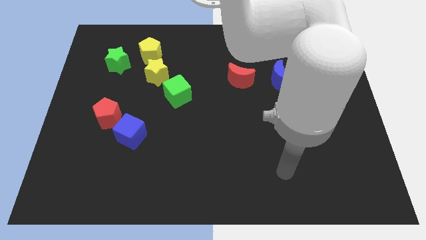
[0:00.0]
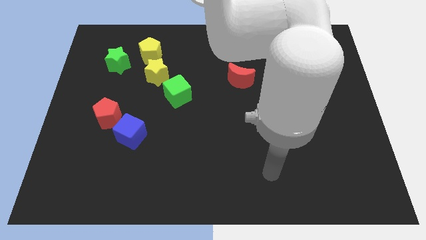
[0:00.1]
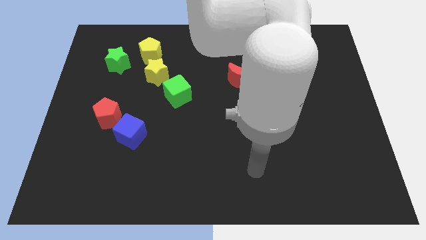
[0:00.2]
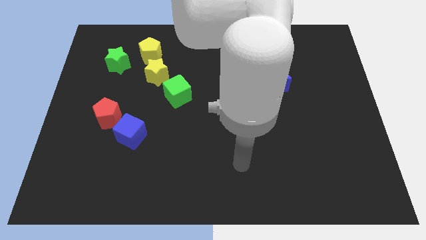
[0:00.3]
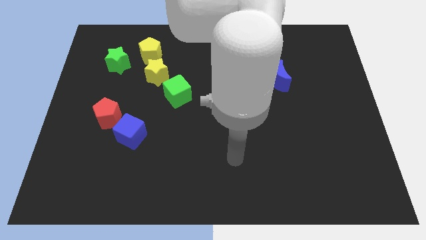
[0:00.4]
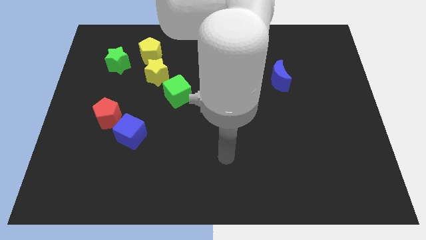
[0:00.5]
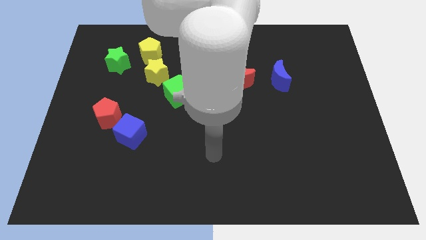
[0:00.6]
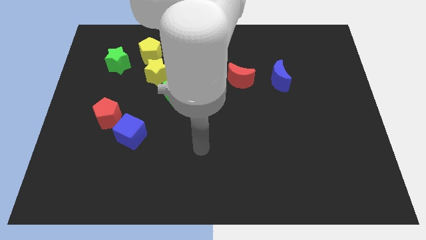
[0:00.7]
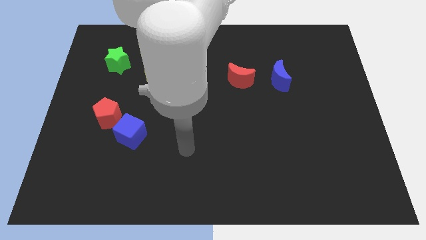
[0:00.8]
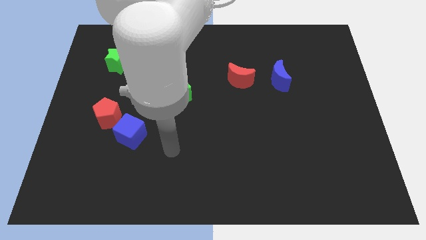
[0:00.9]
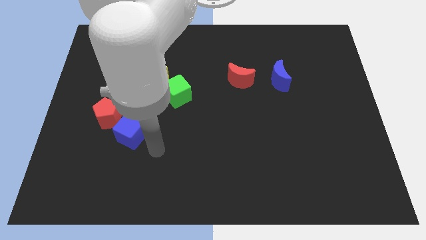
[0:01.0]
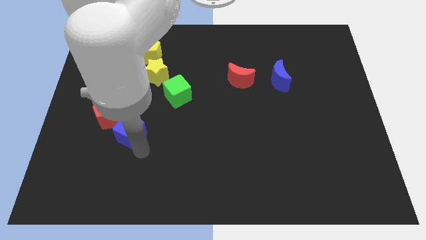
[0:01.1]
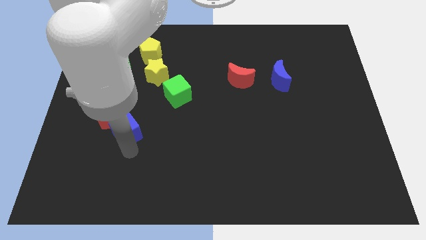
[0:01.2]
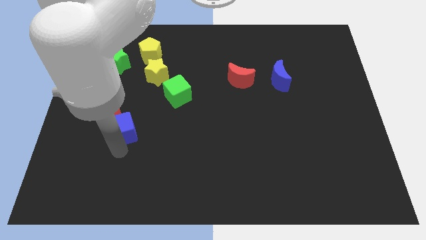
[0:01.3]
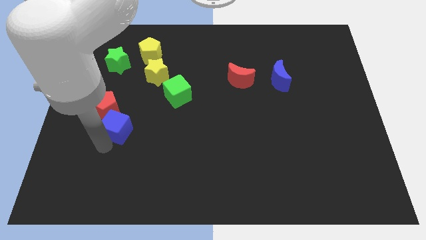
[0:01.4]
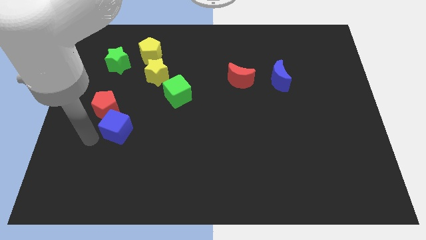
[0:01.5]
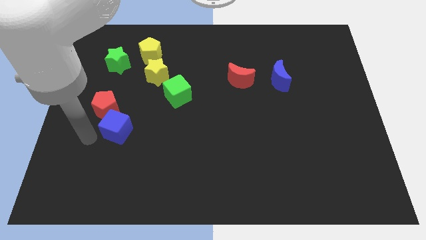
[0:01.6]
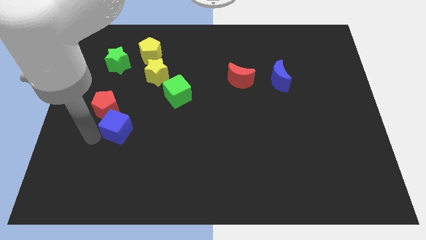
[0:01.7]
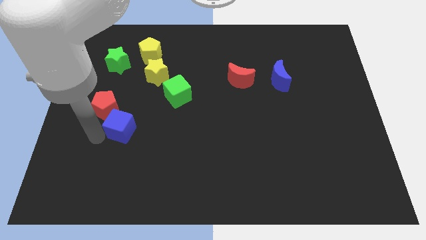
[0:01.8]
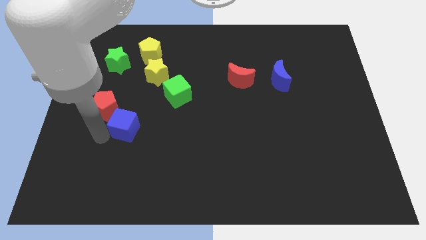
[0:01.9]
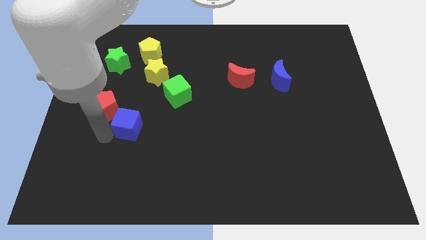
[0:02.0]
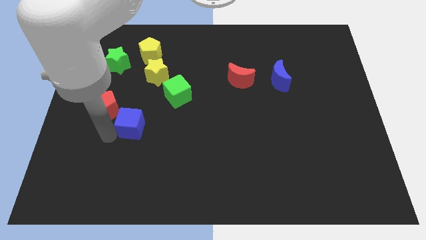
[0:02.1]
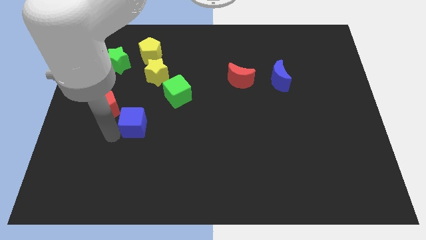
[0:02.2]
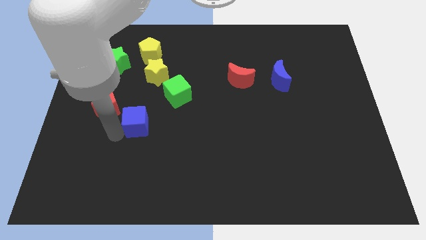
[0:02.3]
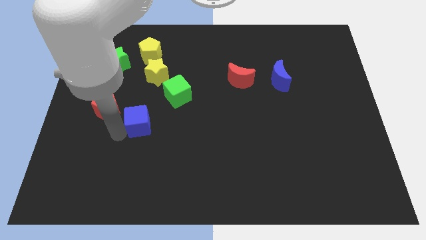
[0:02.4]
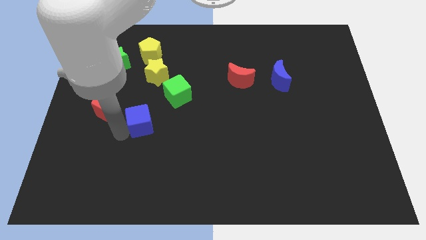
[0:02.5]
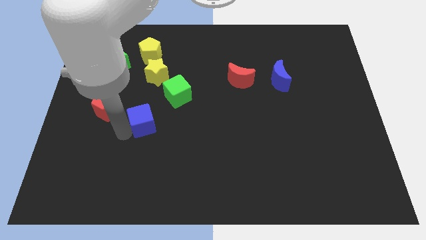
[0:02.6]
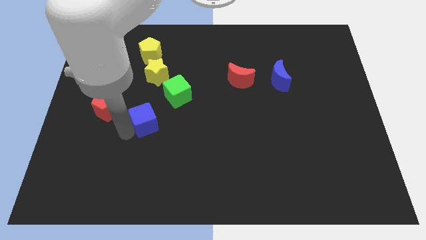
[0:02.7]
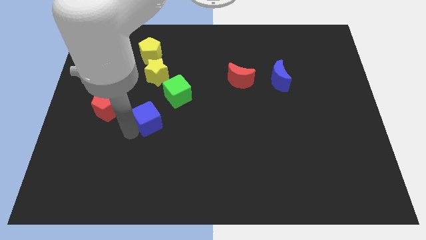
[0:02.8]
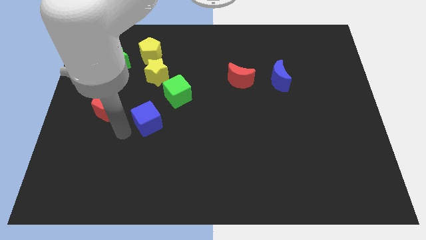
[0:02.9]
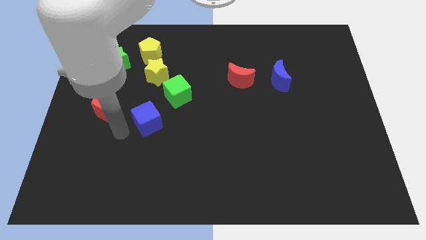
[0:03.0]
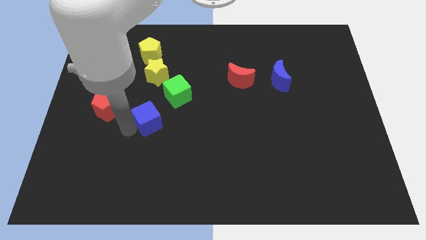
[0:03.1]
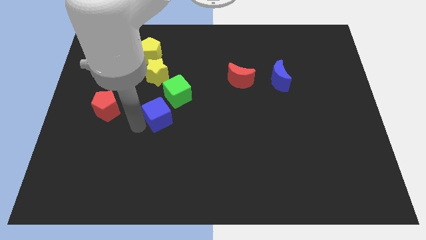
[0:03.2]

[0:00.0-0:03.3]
move the blue cube up and right diagonally a little

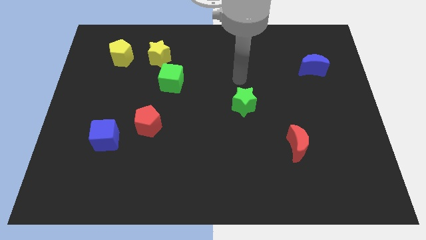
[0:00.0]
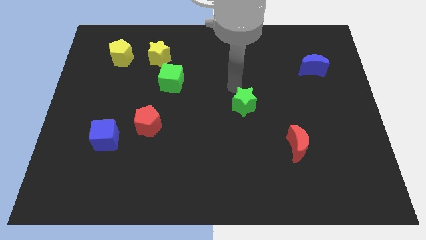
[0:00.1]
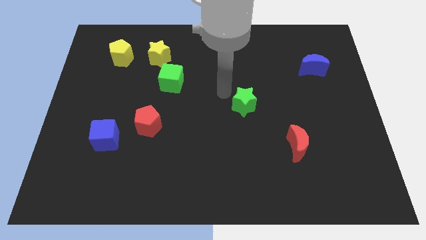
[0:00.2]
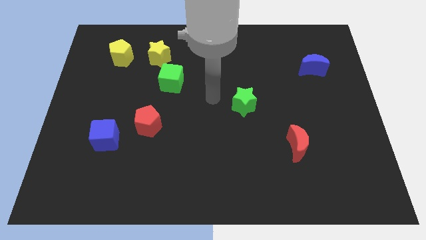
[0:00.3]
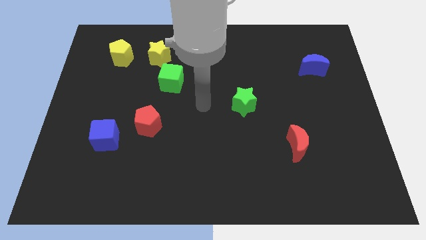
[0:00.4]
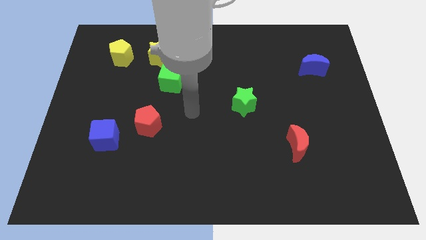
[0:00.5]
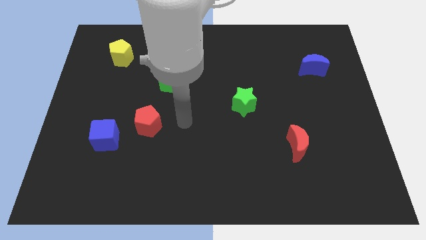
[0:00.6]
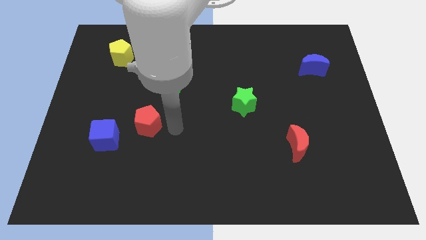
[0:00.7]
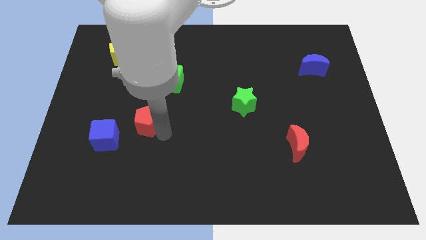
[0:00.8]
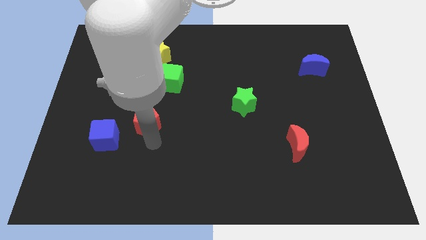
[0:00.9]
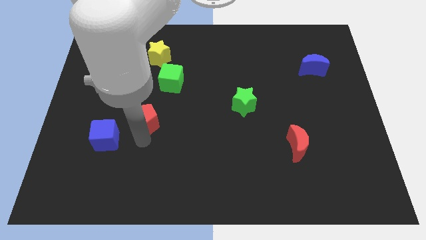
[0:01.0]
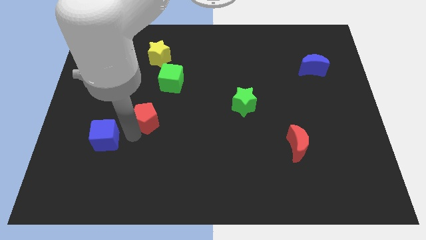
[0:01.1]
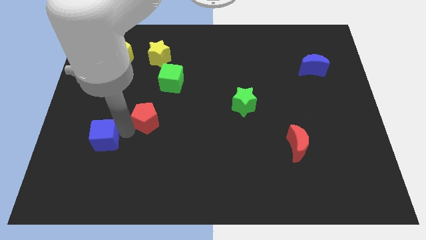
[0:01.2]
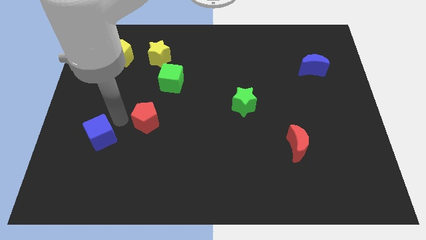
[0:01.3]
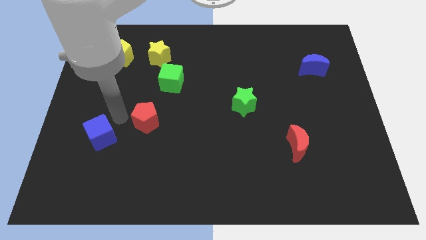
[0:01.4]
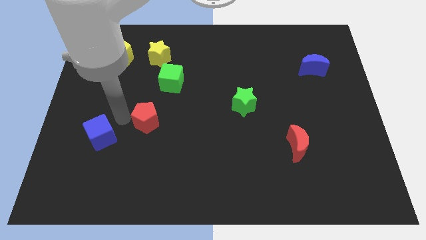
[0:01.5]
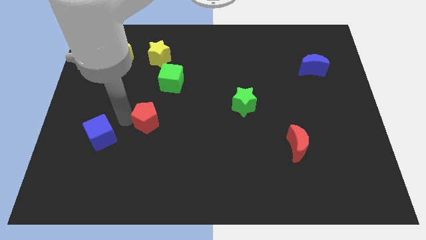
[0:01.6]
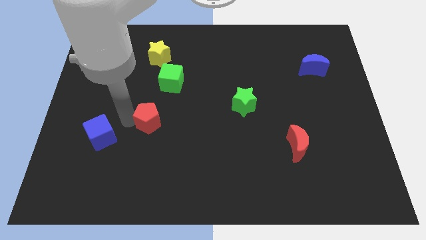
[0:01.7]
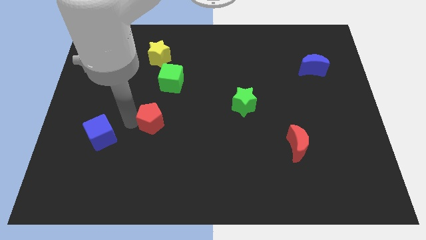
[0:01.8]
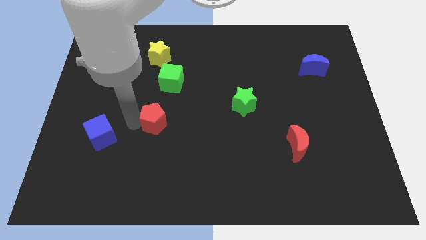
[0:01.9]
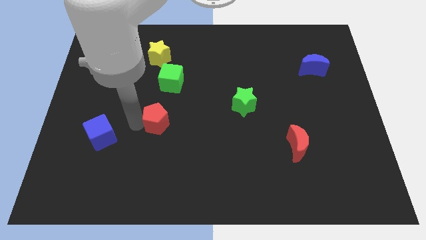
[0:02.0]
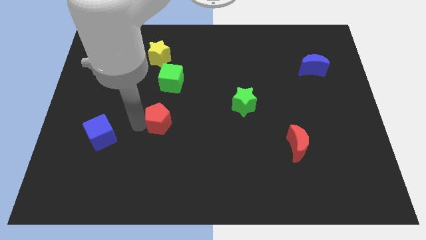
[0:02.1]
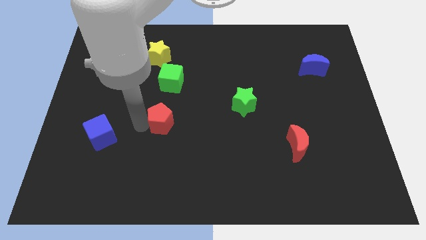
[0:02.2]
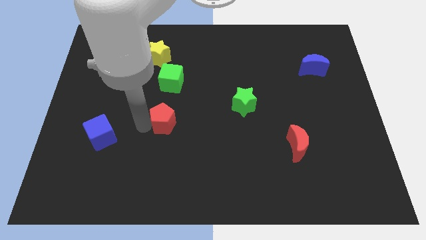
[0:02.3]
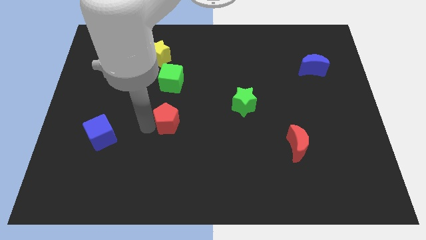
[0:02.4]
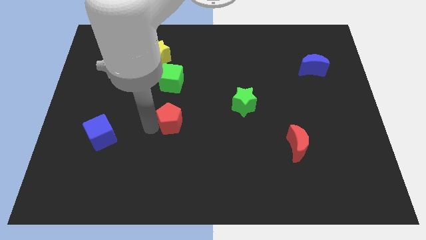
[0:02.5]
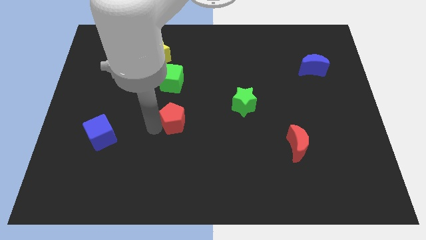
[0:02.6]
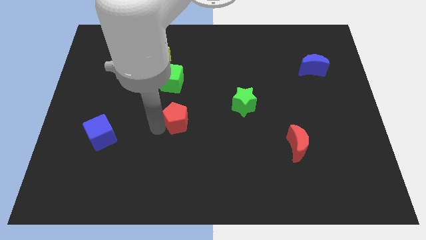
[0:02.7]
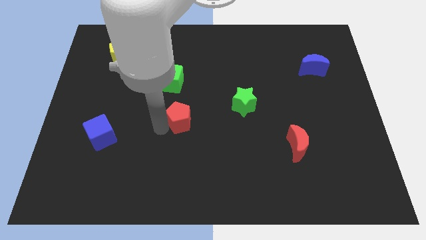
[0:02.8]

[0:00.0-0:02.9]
slightly slide the red pentagon to the right

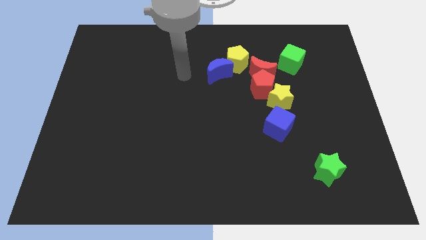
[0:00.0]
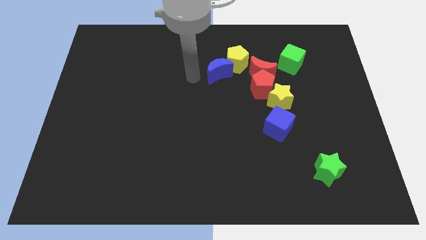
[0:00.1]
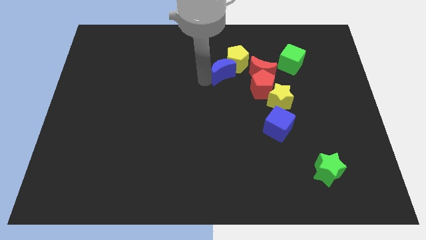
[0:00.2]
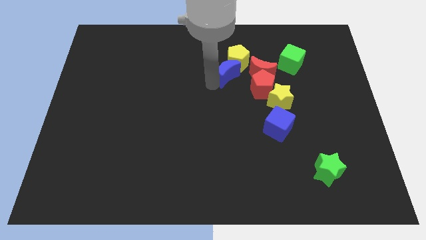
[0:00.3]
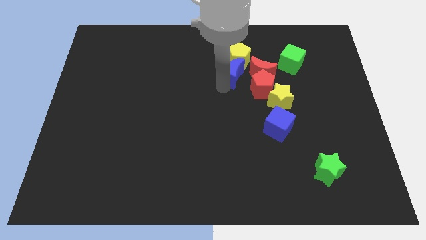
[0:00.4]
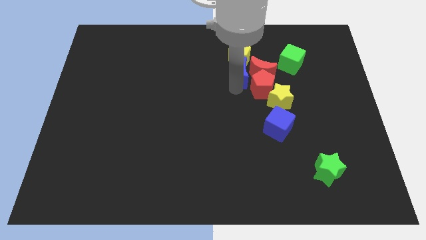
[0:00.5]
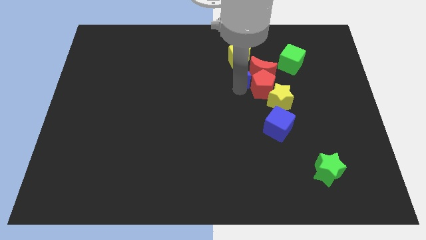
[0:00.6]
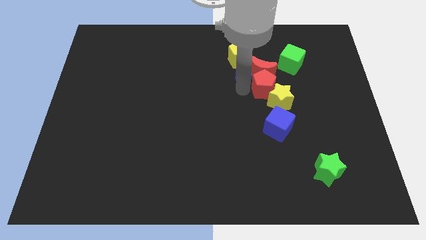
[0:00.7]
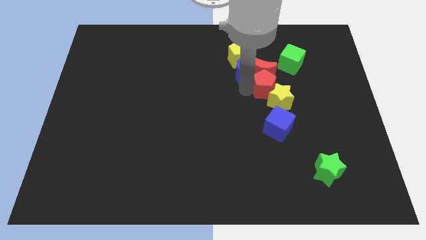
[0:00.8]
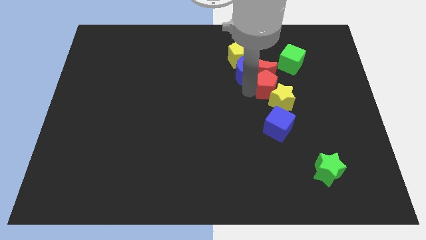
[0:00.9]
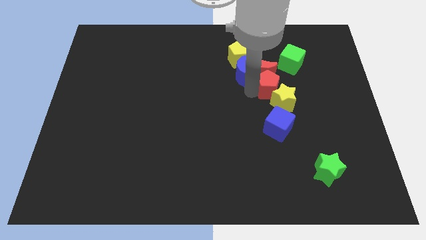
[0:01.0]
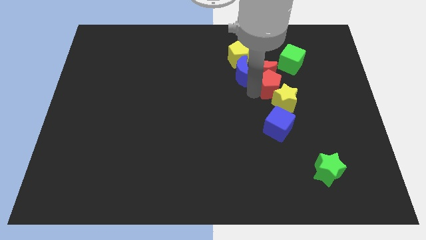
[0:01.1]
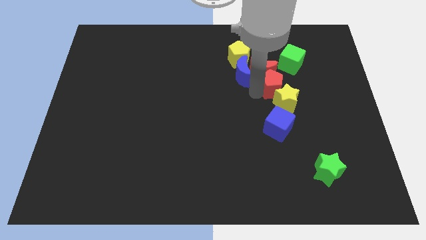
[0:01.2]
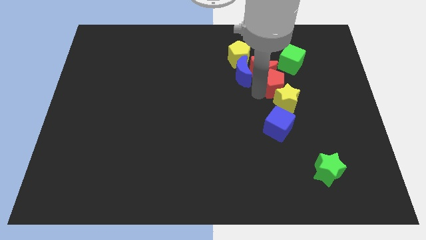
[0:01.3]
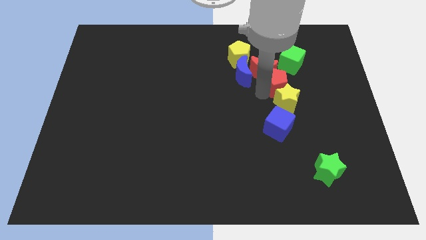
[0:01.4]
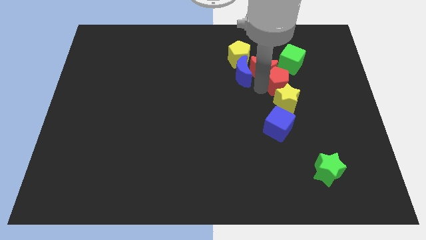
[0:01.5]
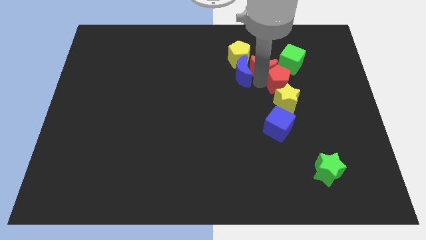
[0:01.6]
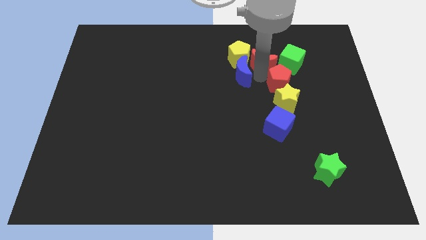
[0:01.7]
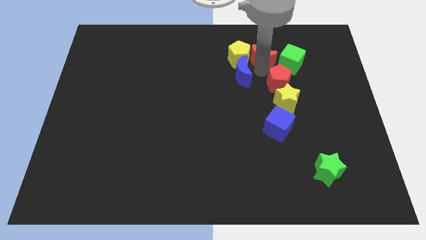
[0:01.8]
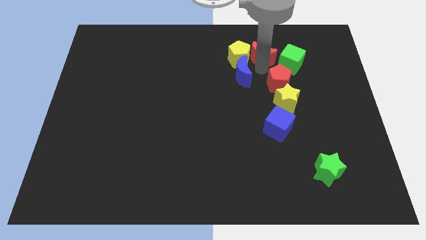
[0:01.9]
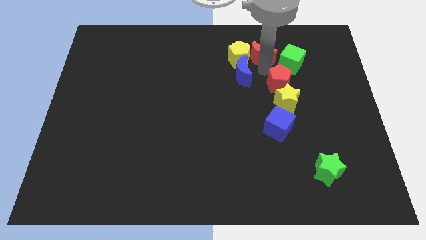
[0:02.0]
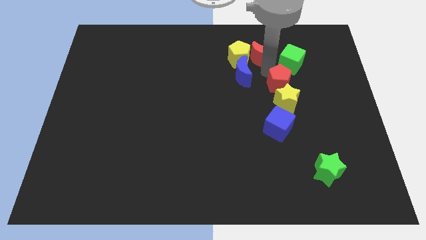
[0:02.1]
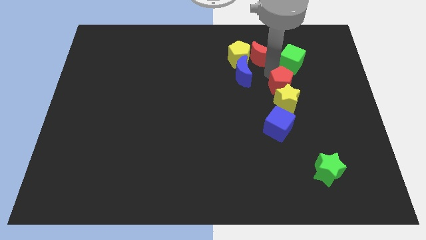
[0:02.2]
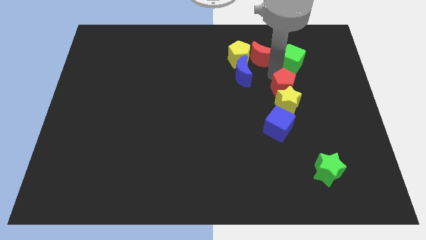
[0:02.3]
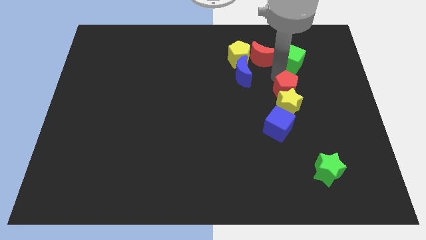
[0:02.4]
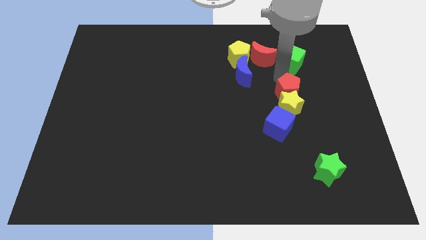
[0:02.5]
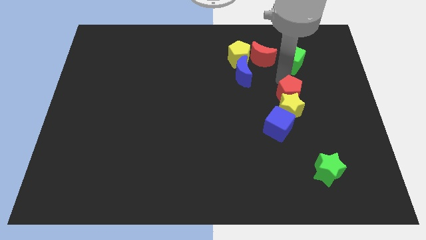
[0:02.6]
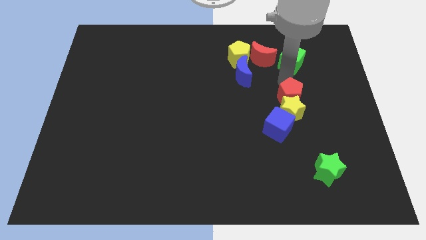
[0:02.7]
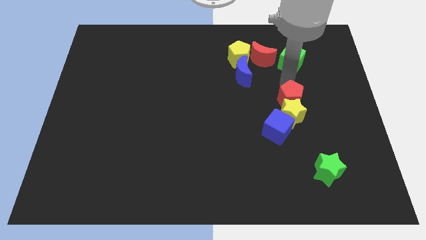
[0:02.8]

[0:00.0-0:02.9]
slide the red pentagon downwards and then to the right a little bit
